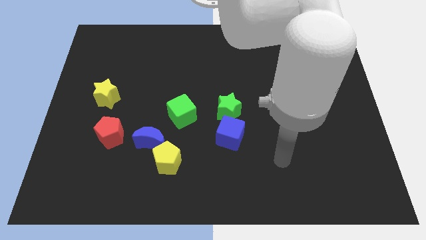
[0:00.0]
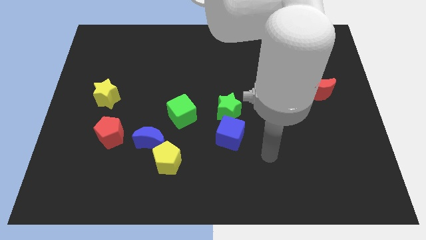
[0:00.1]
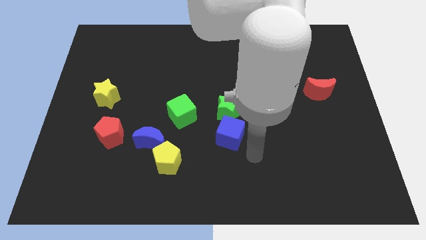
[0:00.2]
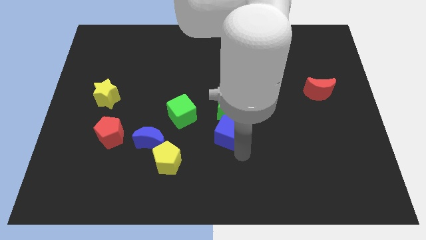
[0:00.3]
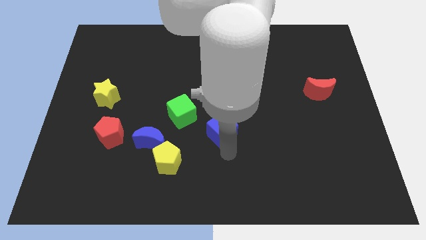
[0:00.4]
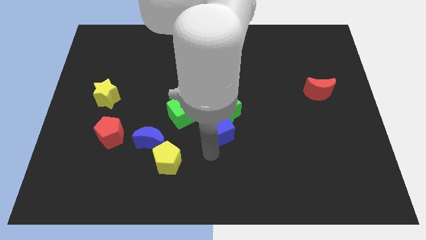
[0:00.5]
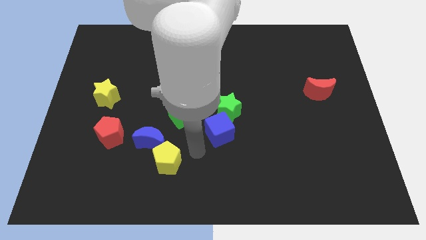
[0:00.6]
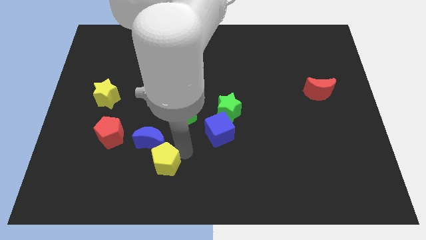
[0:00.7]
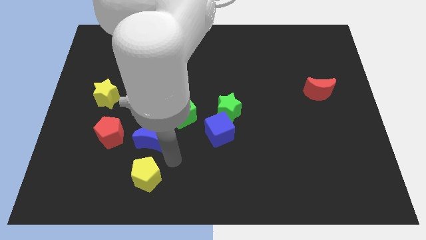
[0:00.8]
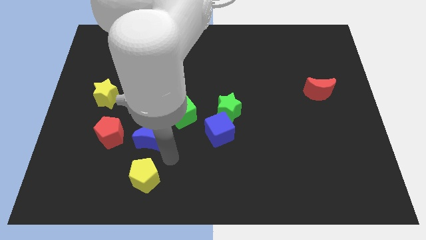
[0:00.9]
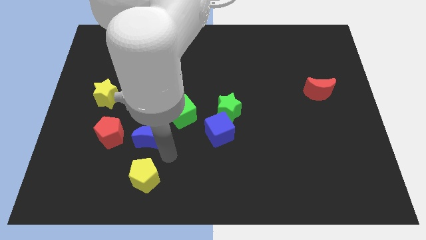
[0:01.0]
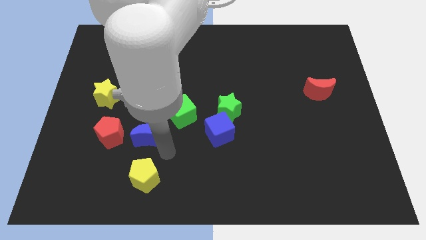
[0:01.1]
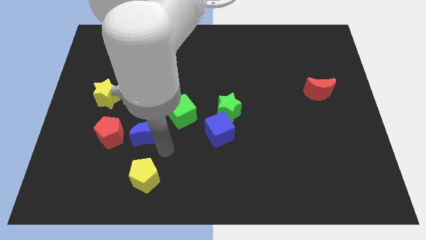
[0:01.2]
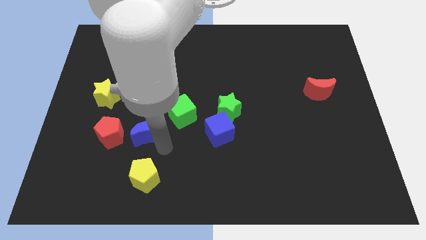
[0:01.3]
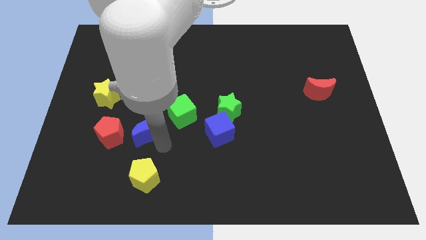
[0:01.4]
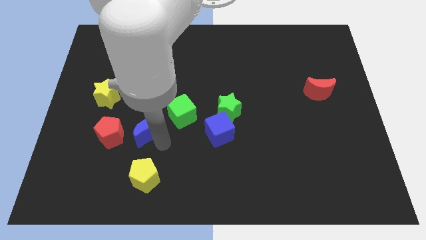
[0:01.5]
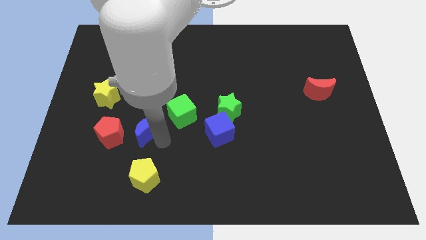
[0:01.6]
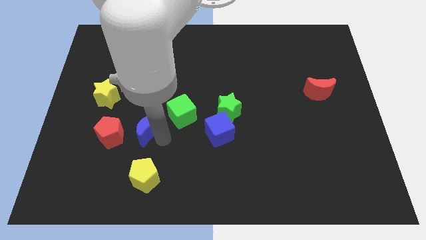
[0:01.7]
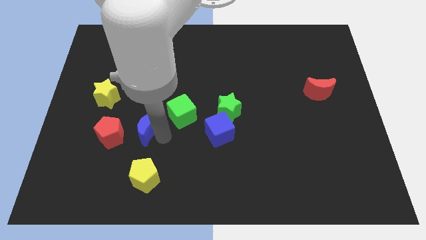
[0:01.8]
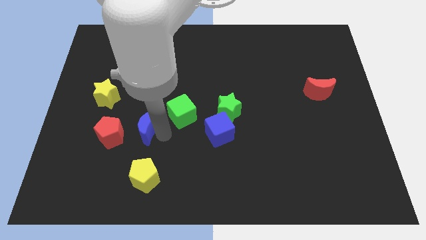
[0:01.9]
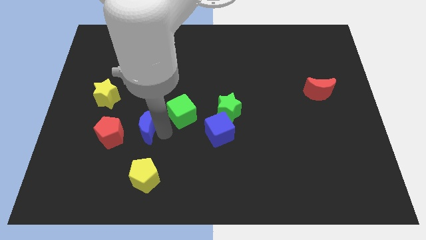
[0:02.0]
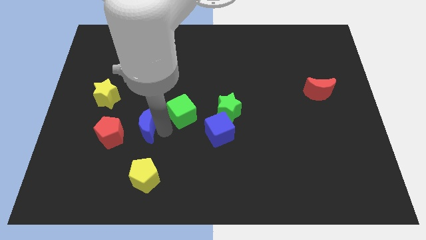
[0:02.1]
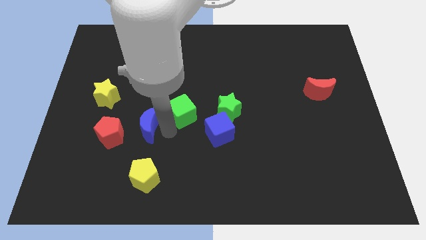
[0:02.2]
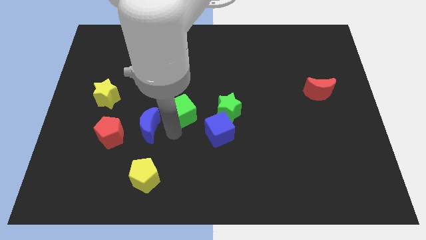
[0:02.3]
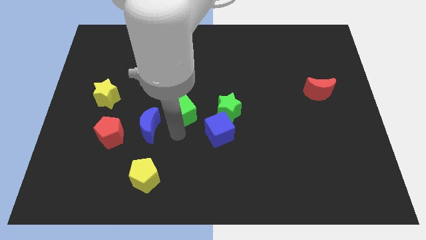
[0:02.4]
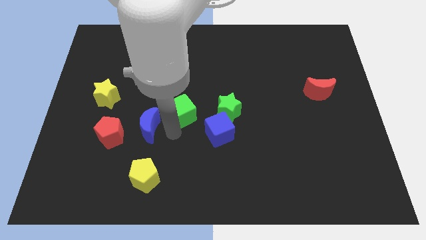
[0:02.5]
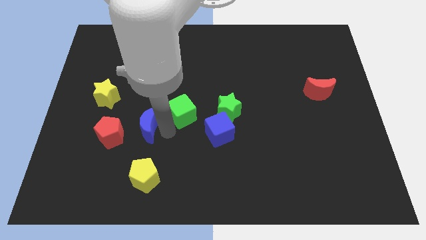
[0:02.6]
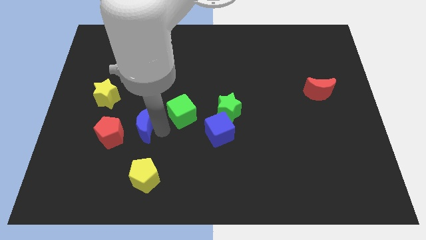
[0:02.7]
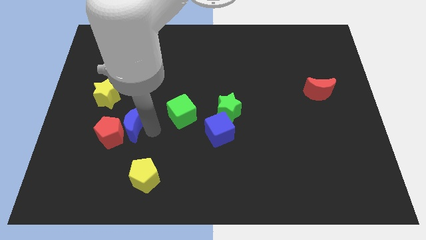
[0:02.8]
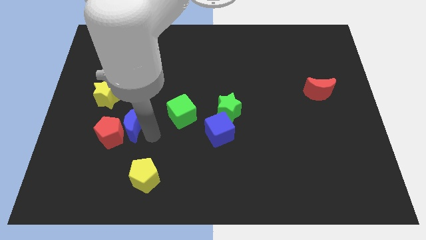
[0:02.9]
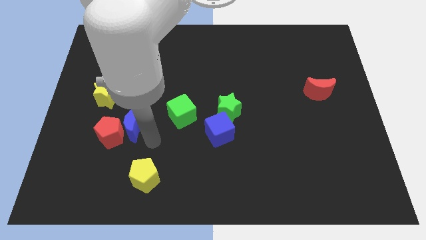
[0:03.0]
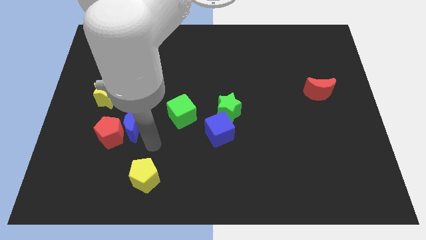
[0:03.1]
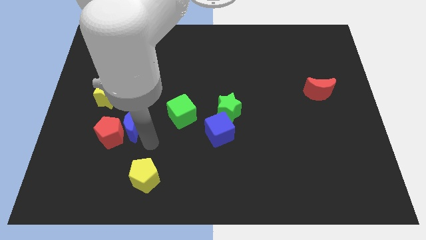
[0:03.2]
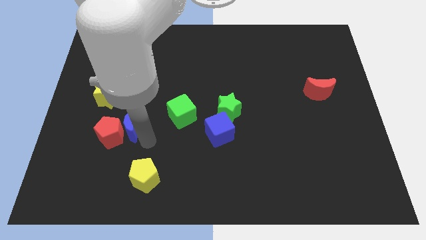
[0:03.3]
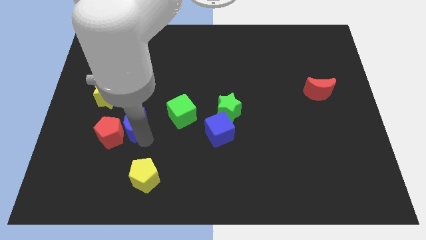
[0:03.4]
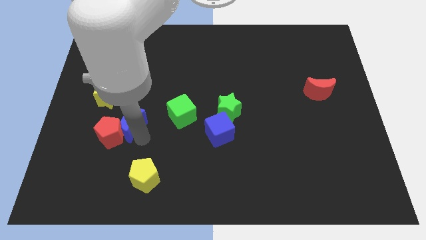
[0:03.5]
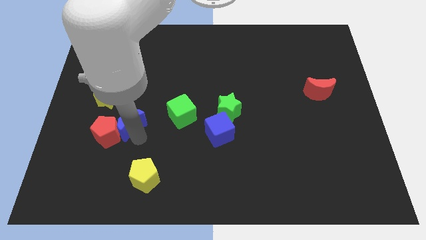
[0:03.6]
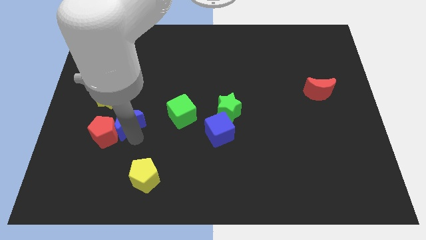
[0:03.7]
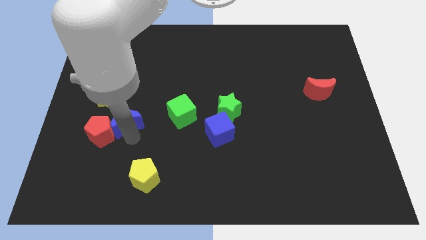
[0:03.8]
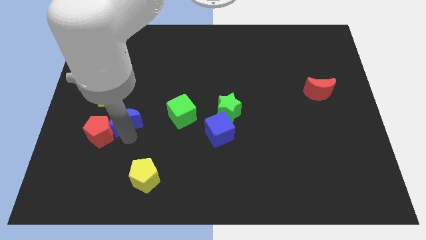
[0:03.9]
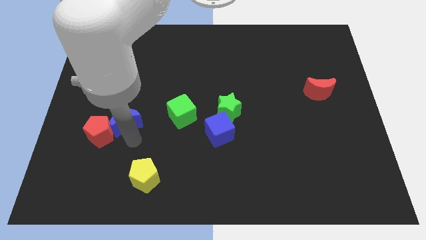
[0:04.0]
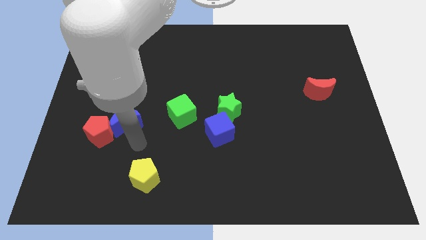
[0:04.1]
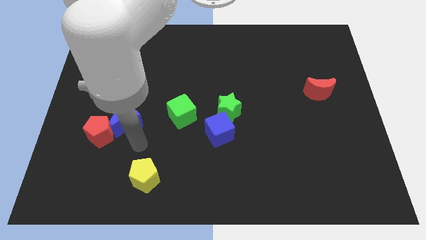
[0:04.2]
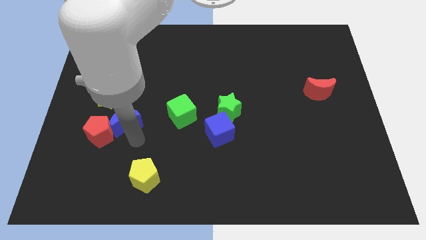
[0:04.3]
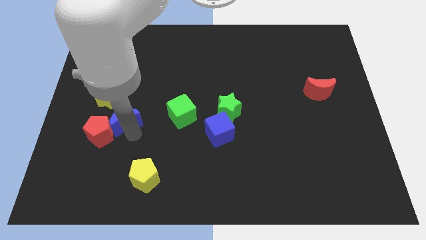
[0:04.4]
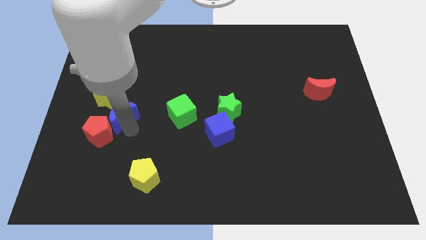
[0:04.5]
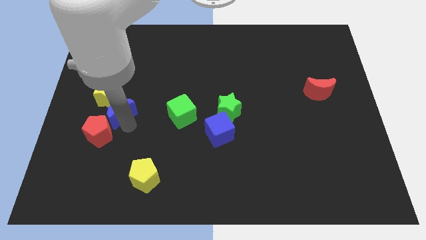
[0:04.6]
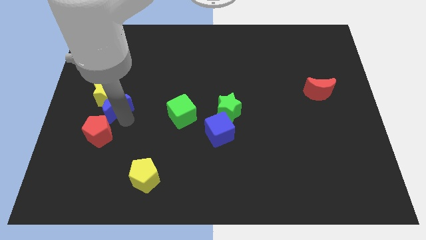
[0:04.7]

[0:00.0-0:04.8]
push the blue moon to the yellow star

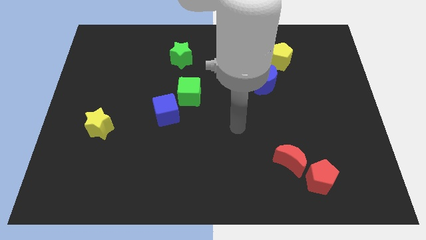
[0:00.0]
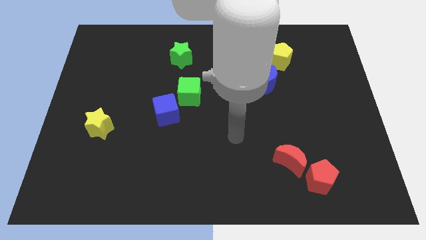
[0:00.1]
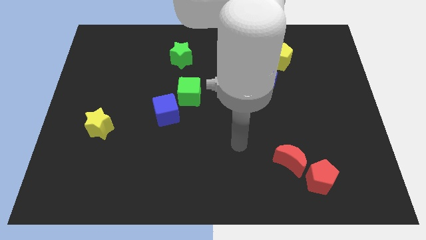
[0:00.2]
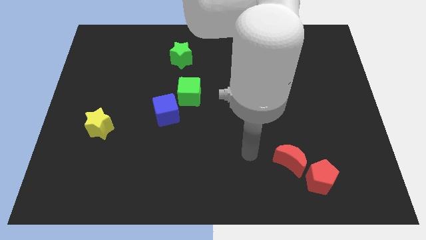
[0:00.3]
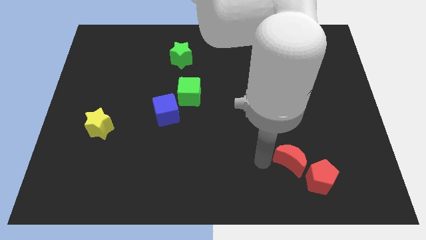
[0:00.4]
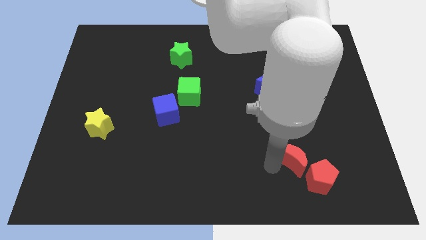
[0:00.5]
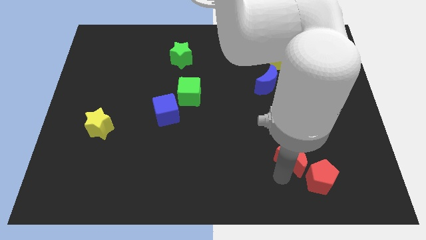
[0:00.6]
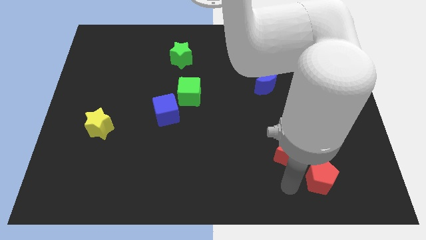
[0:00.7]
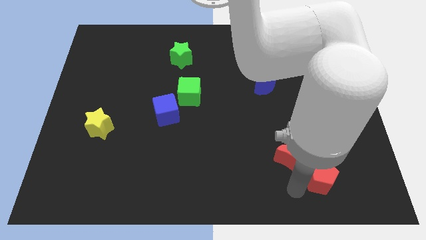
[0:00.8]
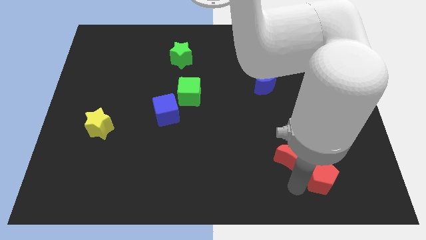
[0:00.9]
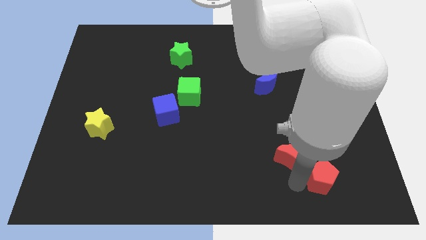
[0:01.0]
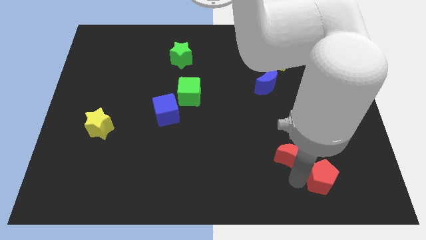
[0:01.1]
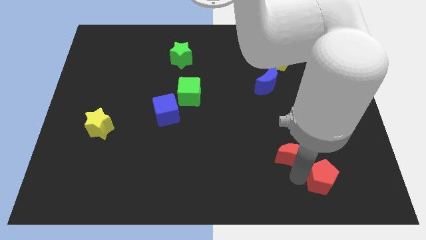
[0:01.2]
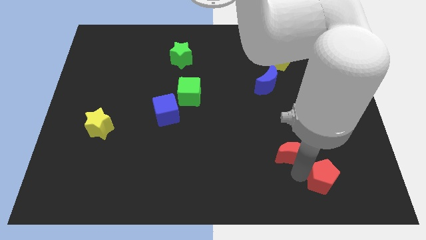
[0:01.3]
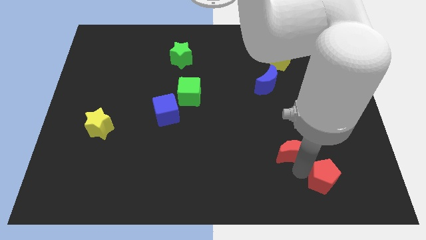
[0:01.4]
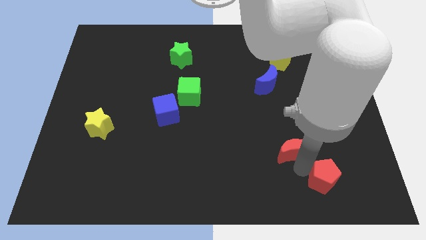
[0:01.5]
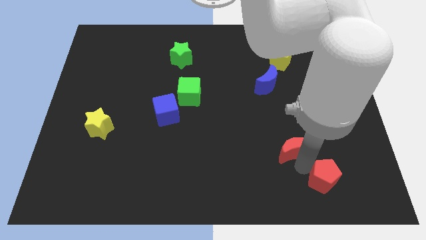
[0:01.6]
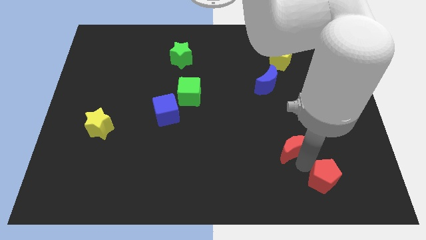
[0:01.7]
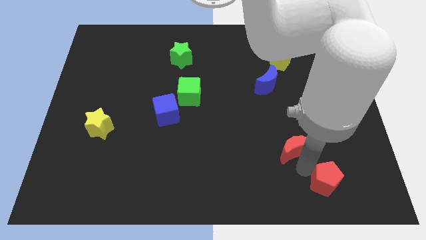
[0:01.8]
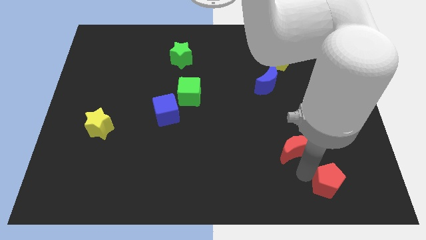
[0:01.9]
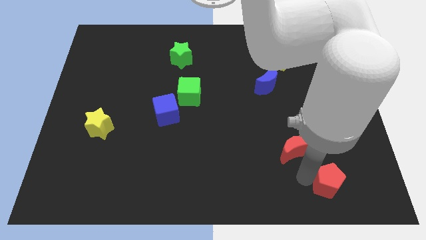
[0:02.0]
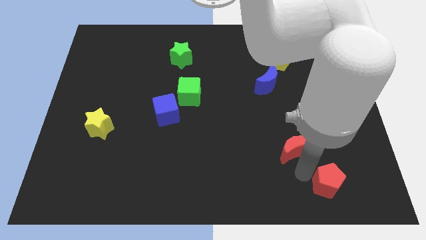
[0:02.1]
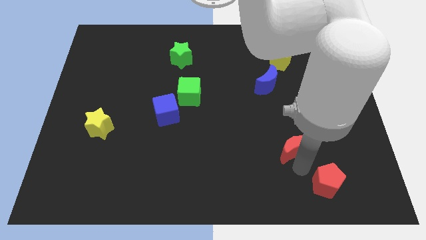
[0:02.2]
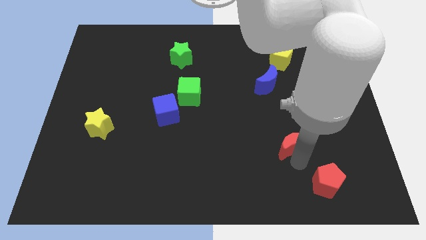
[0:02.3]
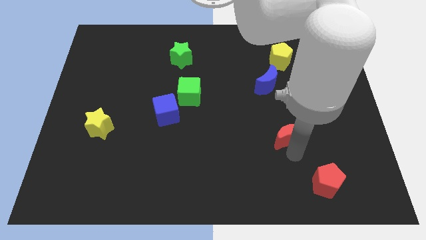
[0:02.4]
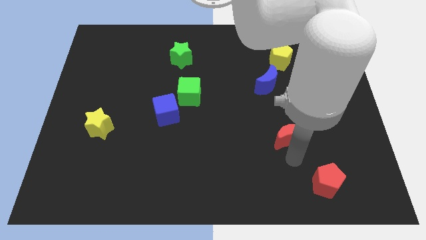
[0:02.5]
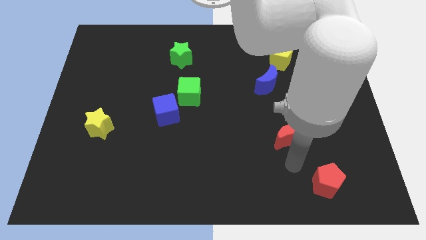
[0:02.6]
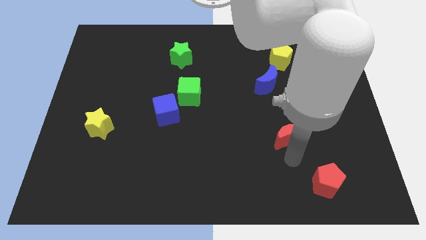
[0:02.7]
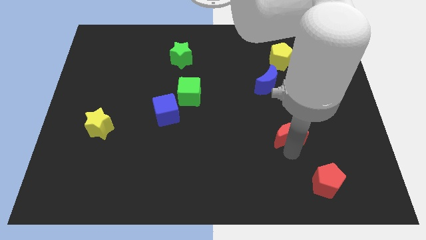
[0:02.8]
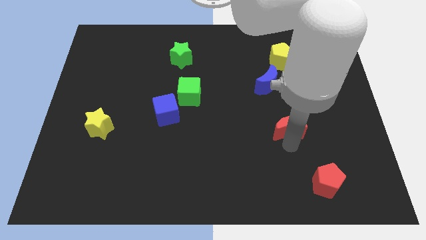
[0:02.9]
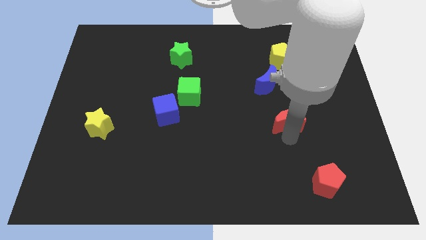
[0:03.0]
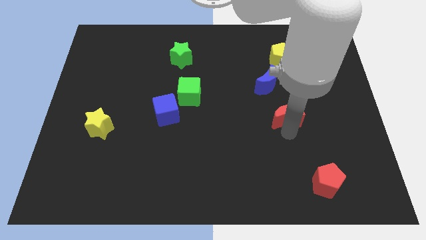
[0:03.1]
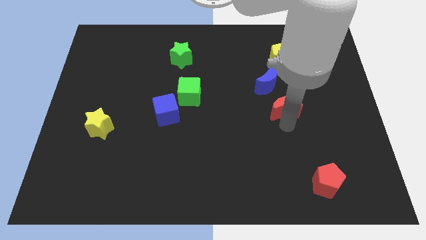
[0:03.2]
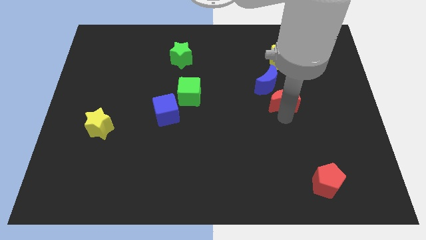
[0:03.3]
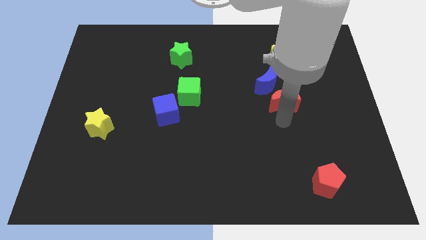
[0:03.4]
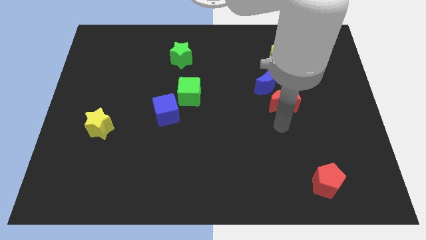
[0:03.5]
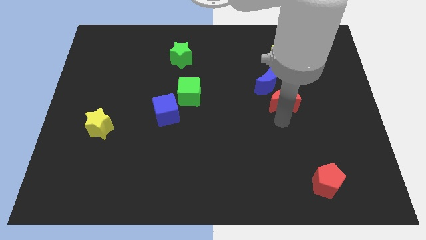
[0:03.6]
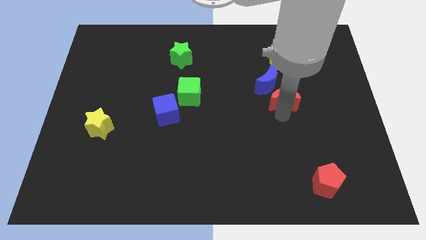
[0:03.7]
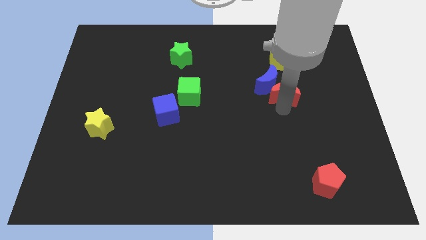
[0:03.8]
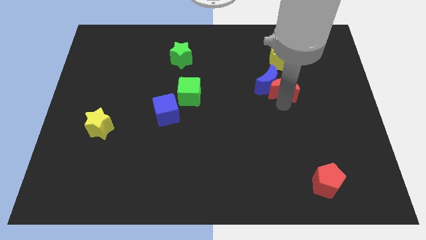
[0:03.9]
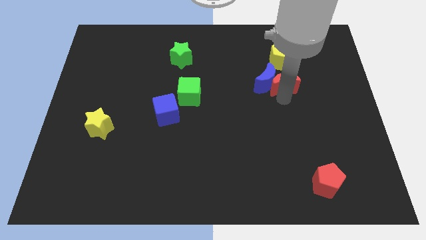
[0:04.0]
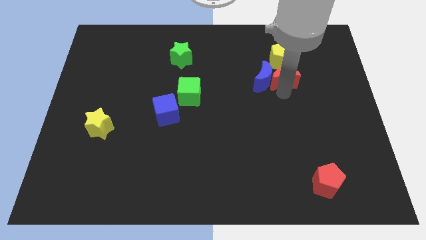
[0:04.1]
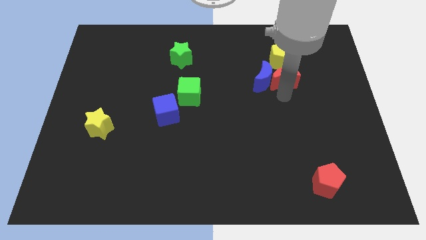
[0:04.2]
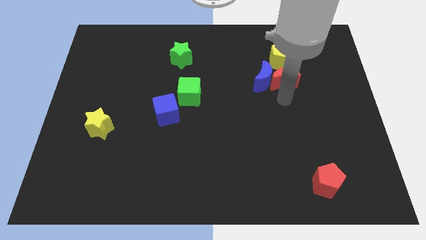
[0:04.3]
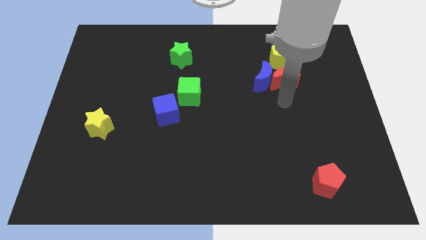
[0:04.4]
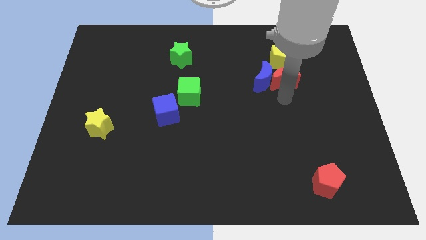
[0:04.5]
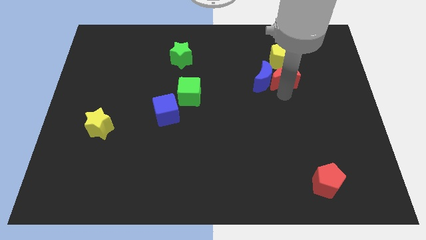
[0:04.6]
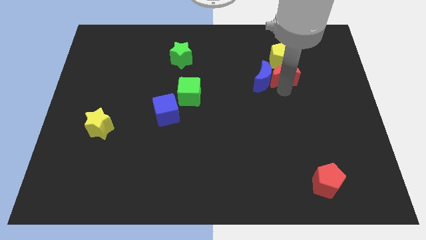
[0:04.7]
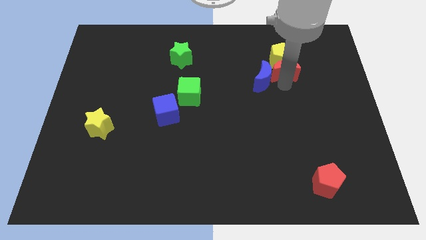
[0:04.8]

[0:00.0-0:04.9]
push the red moon next to the yellow pentagon
